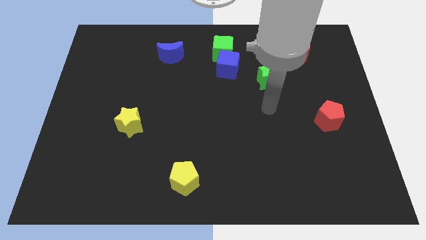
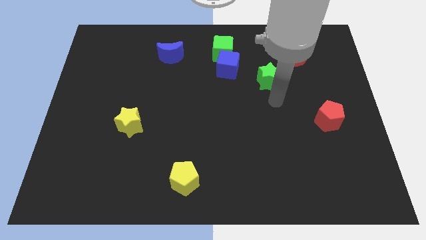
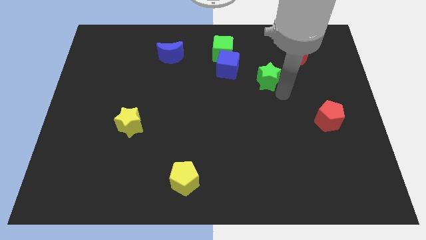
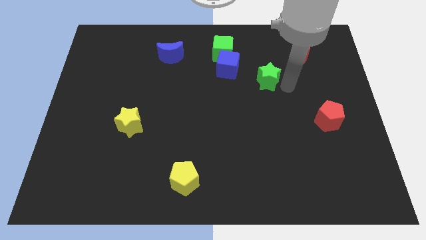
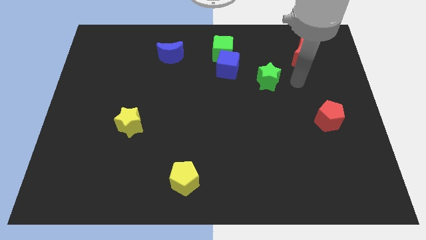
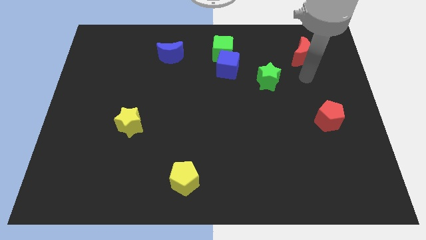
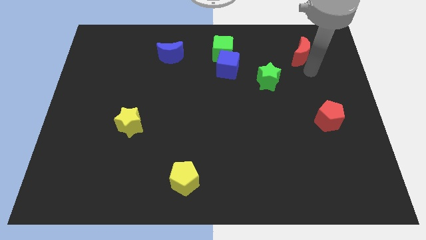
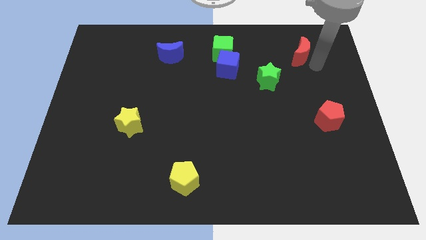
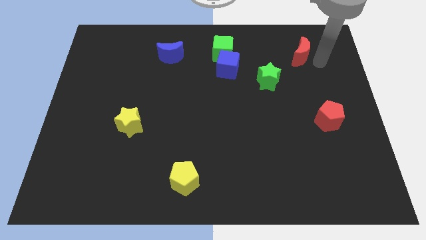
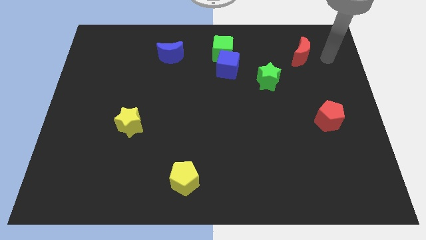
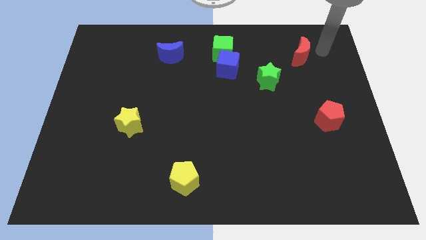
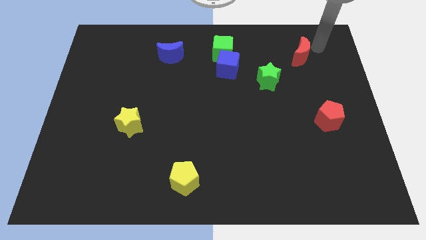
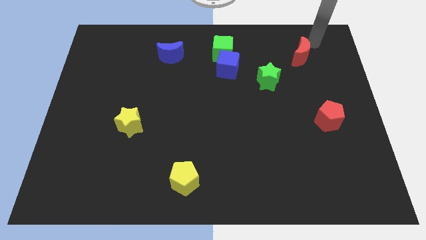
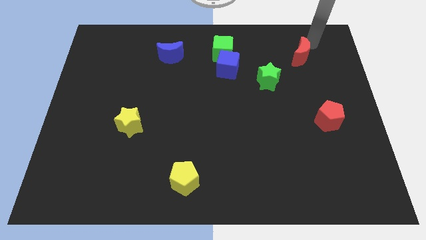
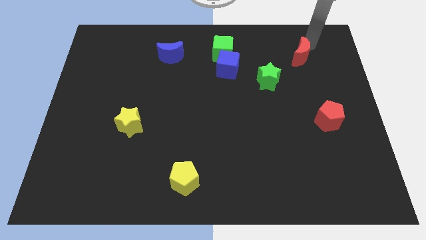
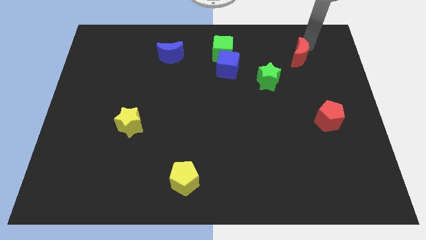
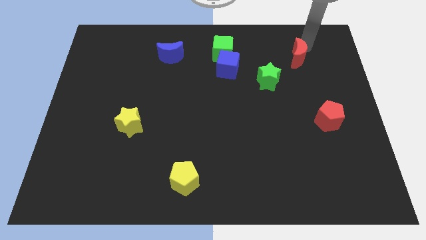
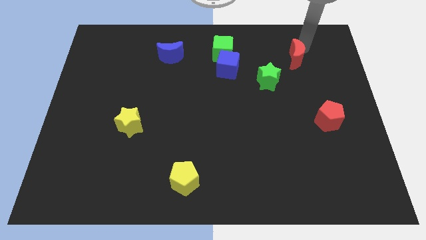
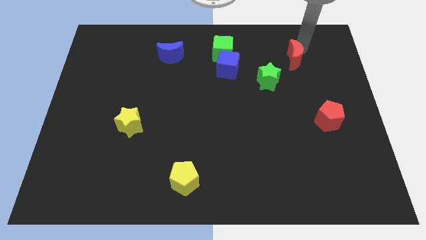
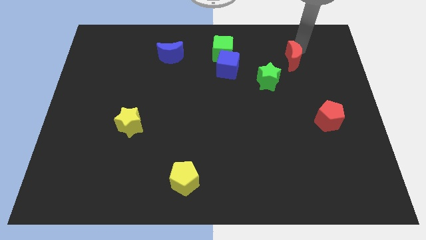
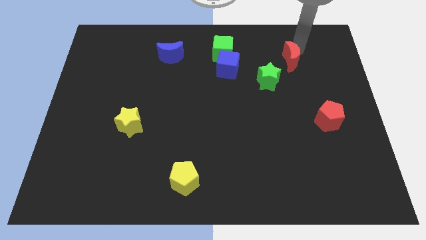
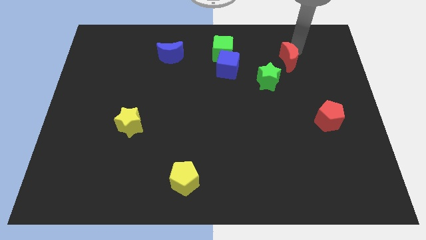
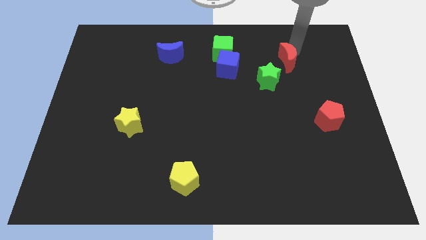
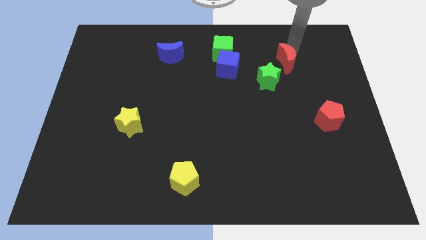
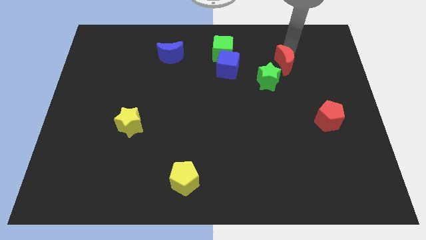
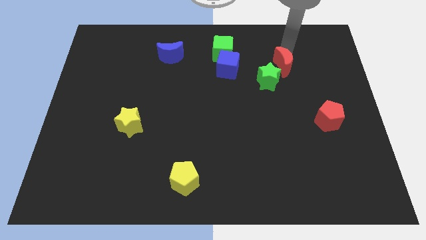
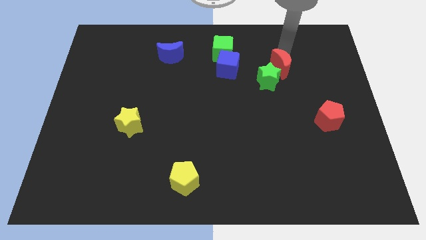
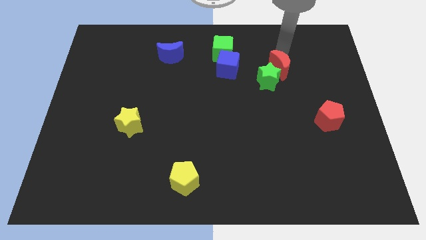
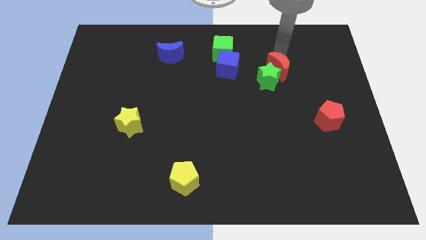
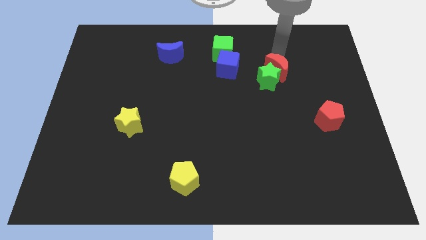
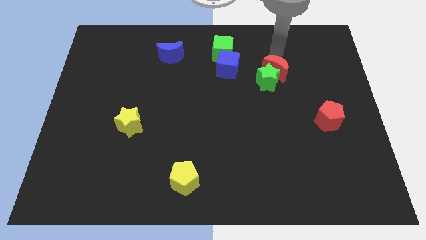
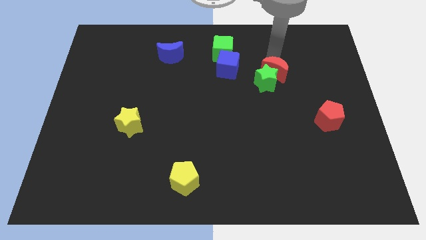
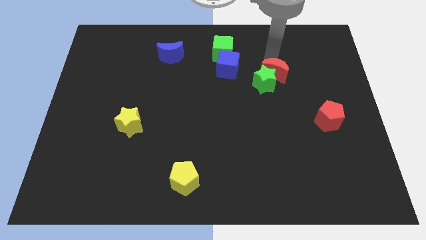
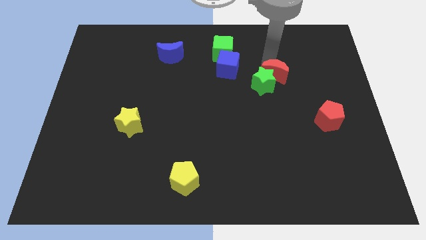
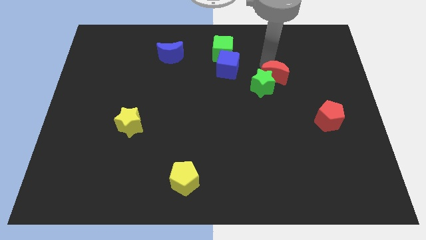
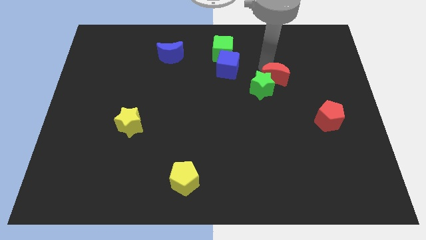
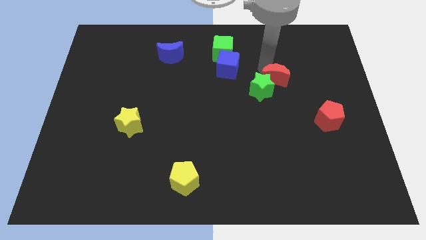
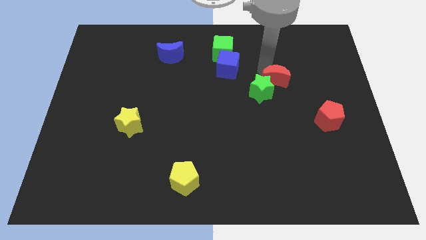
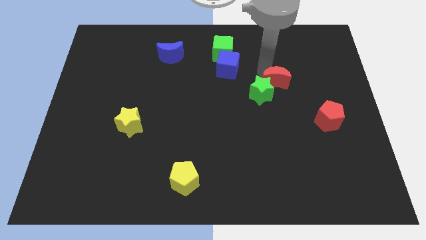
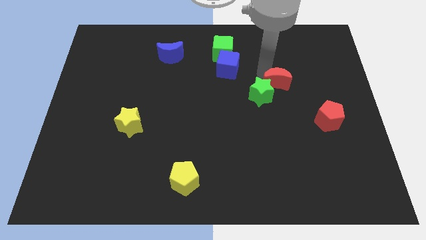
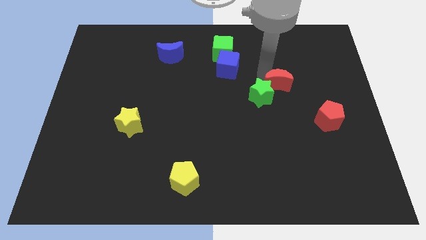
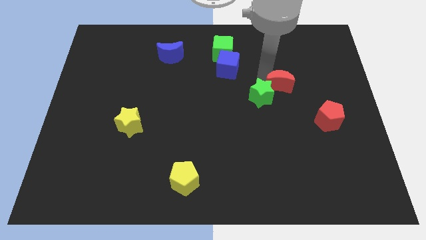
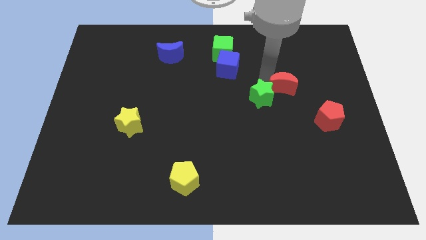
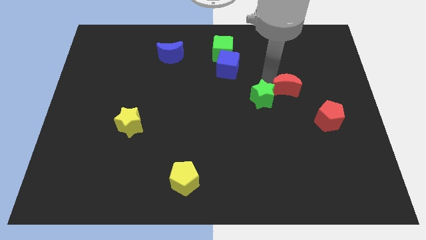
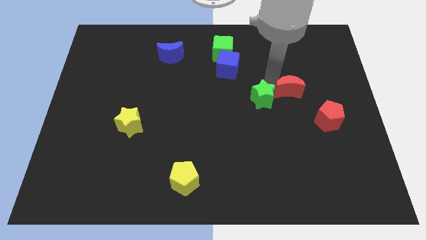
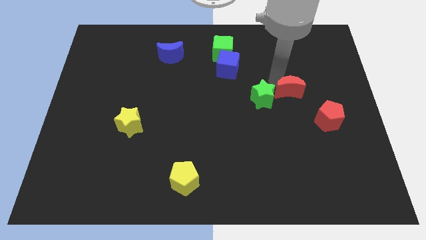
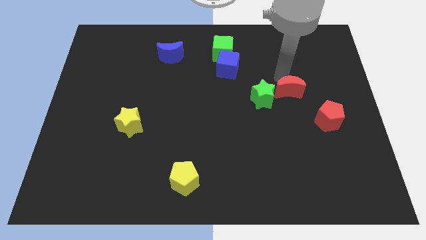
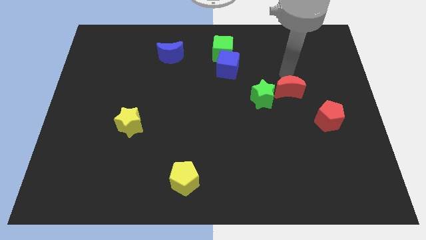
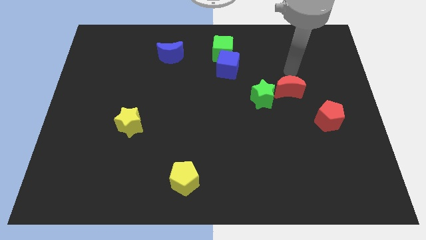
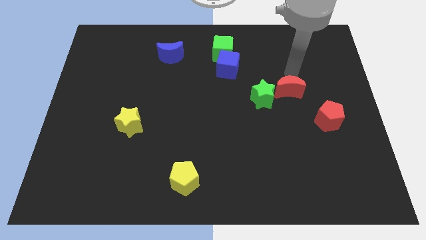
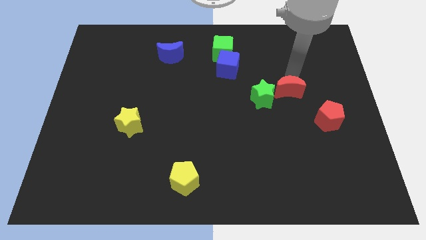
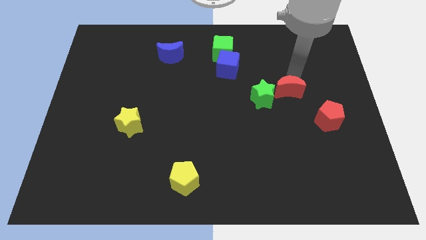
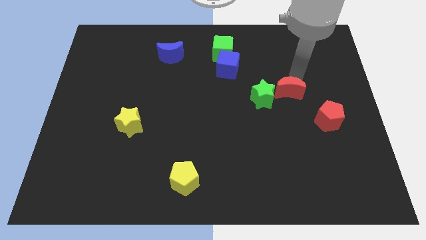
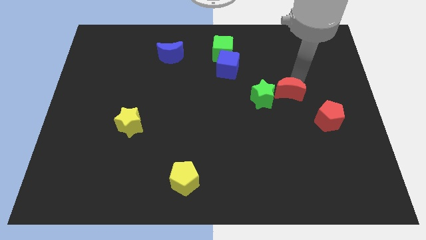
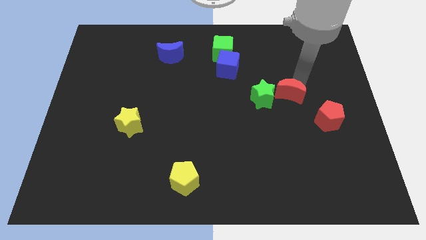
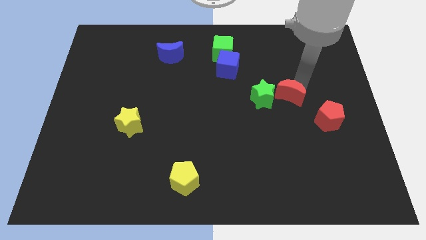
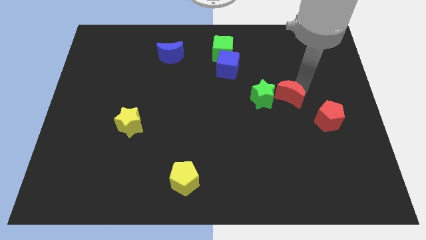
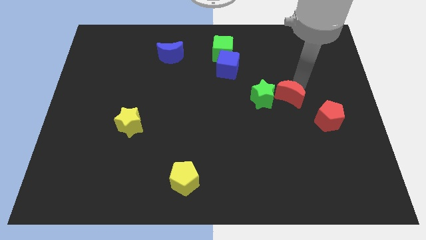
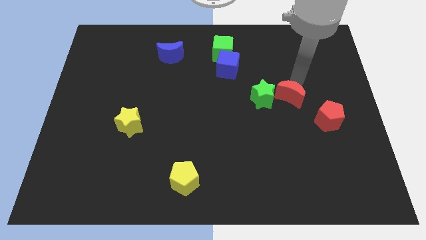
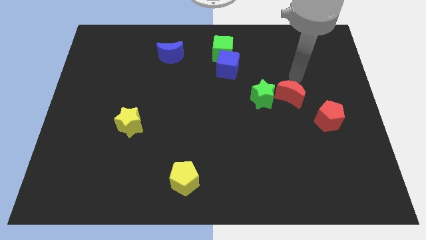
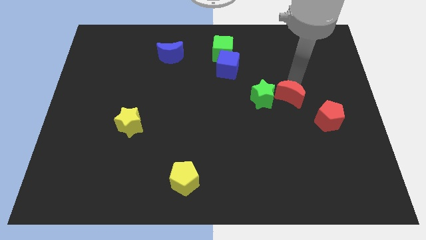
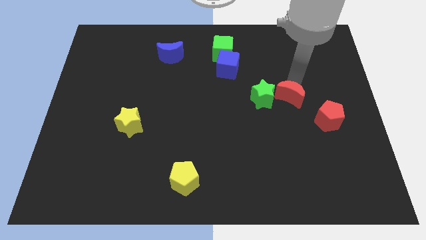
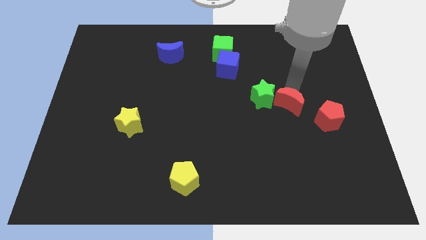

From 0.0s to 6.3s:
move the red moon to the left side of the red pentagon

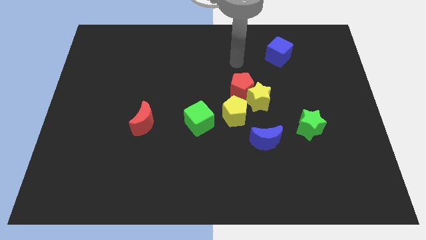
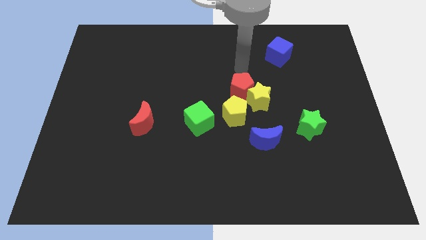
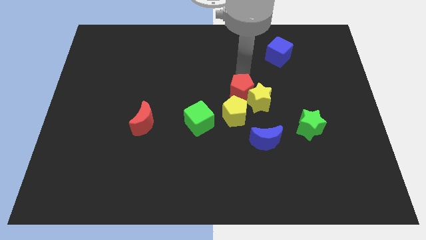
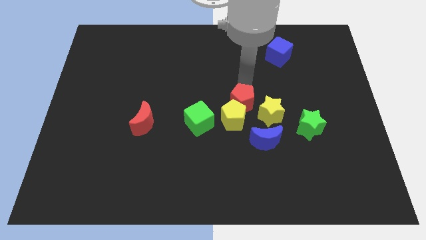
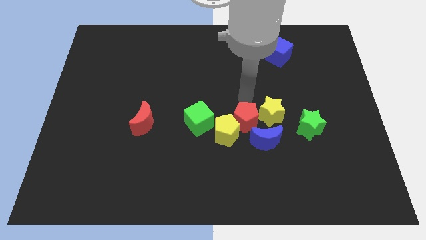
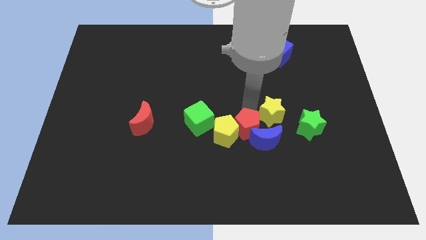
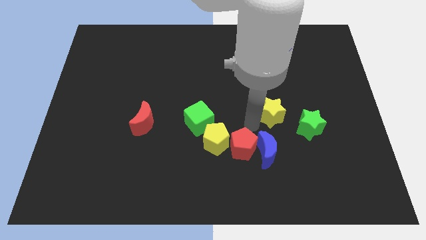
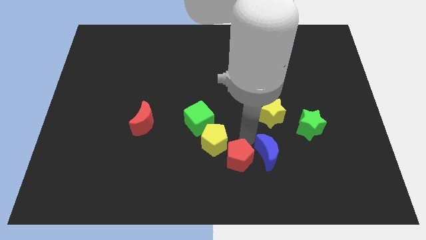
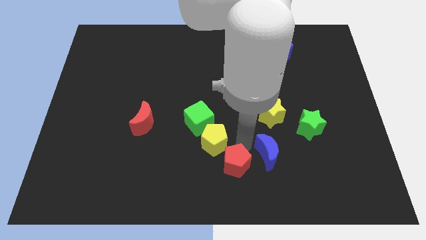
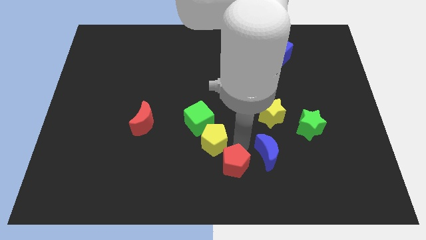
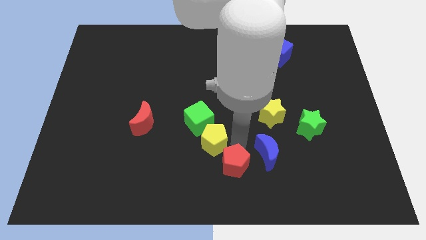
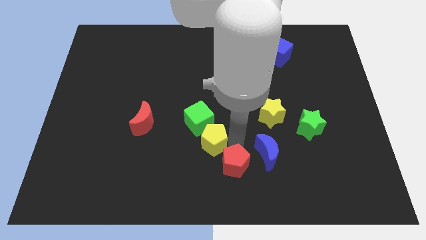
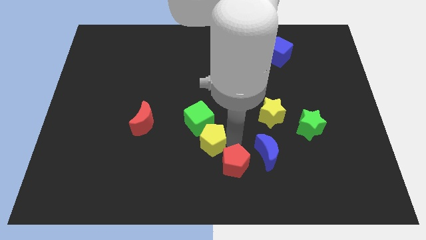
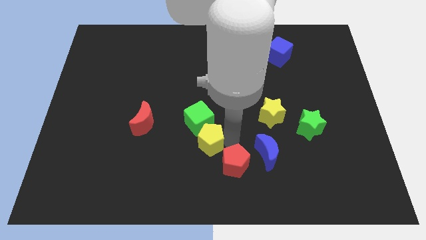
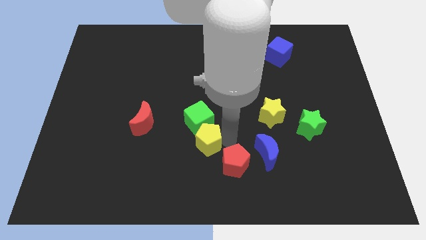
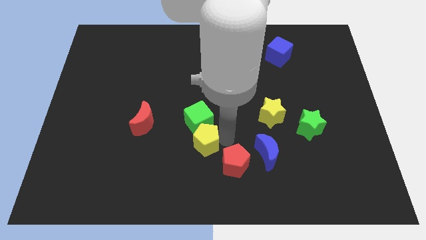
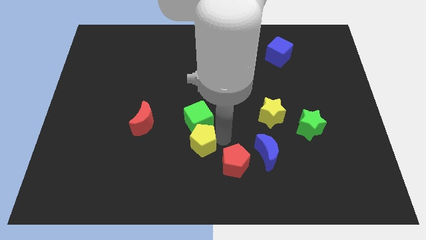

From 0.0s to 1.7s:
move the yellow pentagon diagonally down and to the left of the green cube
